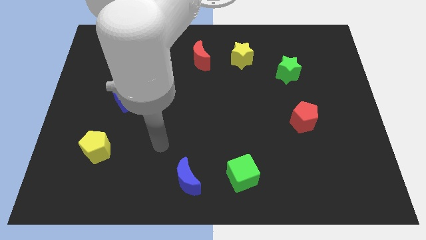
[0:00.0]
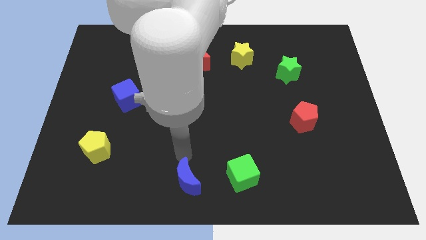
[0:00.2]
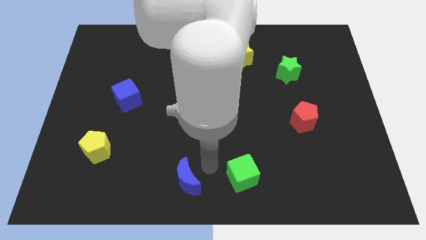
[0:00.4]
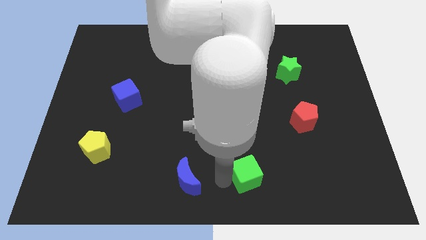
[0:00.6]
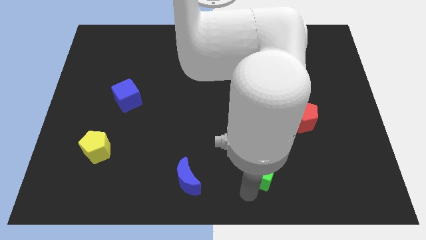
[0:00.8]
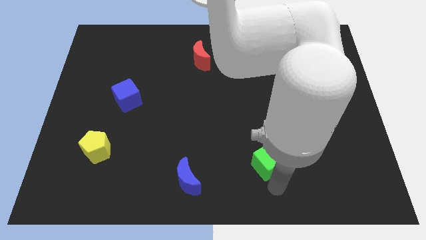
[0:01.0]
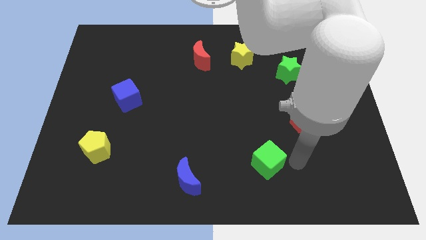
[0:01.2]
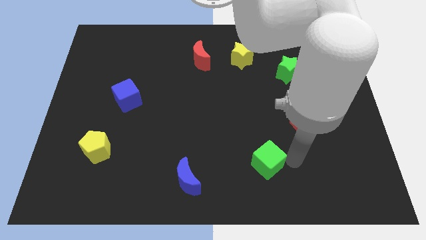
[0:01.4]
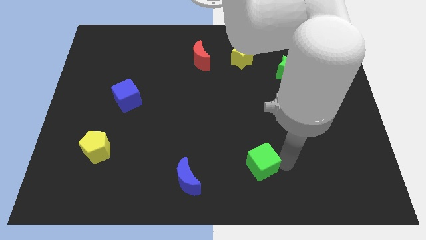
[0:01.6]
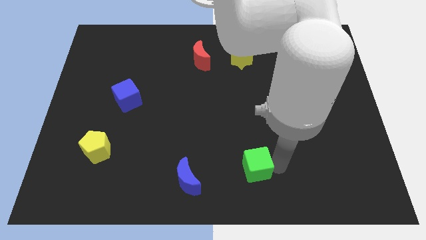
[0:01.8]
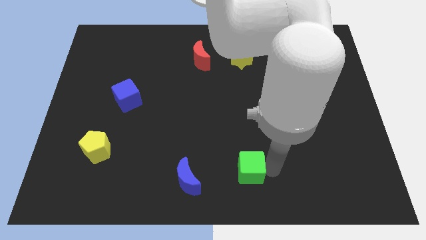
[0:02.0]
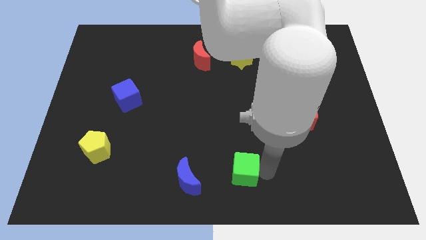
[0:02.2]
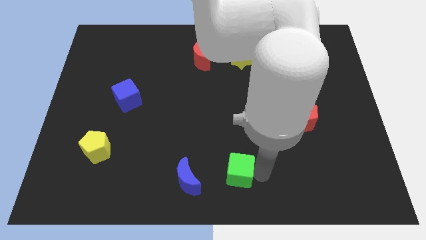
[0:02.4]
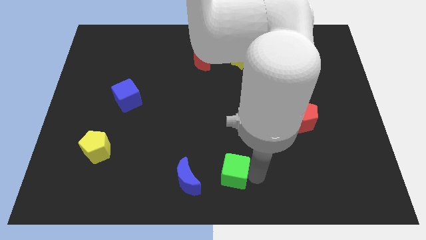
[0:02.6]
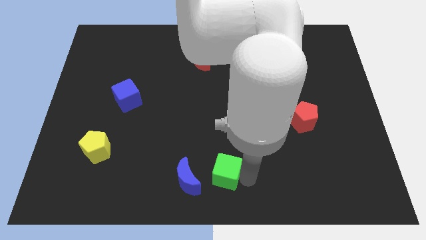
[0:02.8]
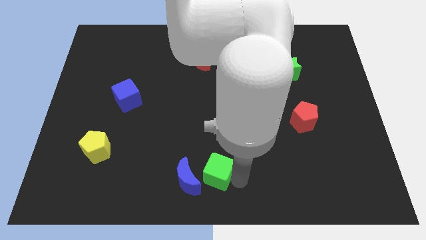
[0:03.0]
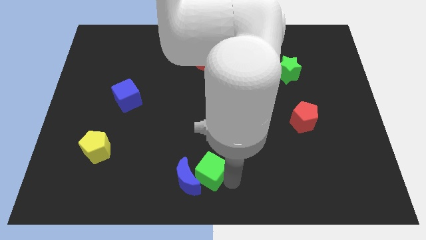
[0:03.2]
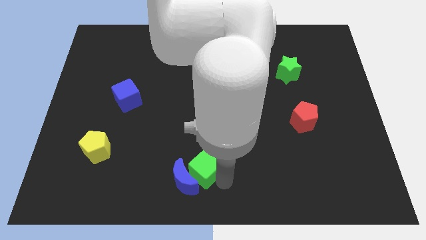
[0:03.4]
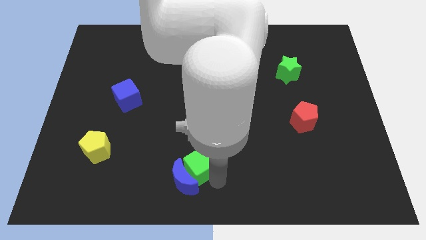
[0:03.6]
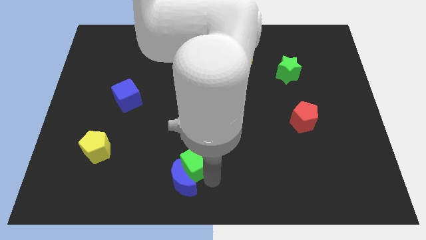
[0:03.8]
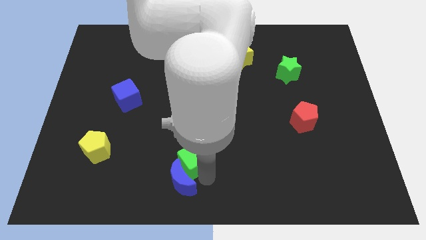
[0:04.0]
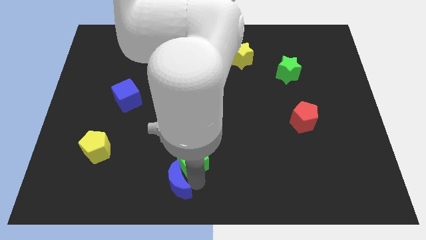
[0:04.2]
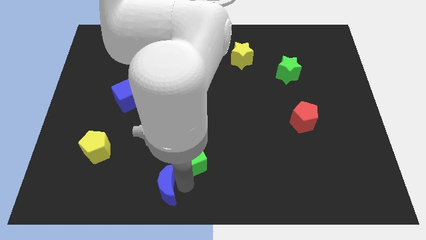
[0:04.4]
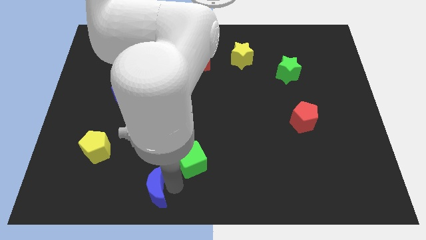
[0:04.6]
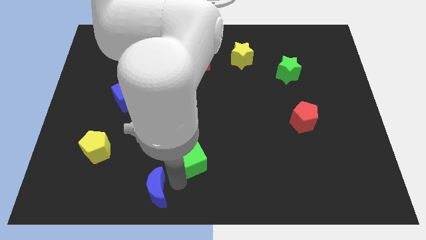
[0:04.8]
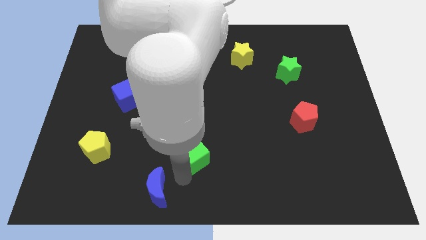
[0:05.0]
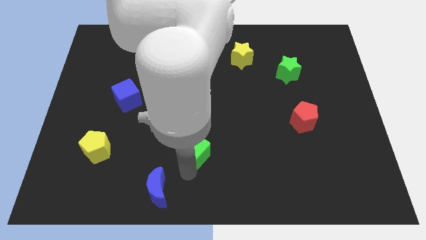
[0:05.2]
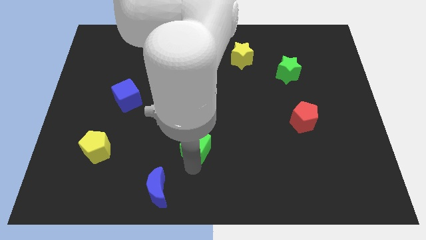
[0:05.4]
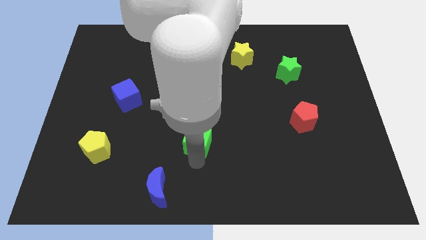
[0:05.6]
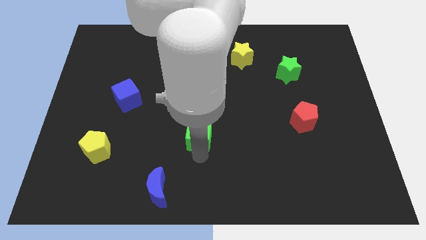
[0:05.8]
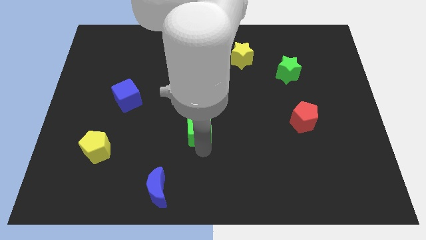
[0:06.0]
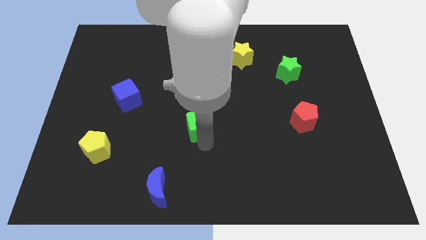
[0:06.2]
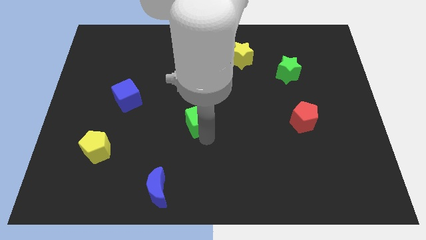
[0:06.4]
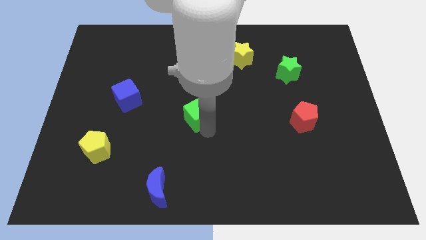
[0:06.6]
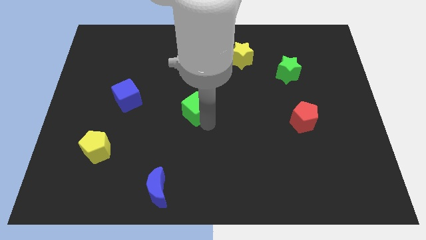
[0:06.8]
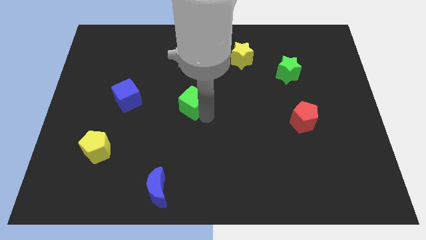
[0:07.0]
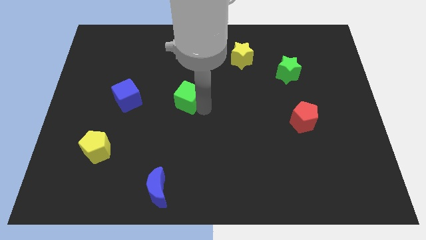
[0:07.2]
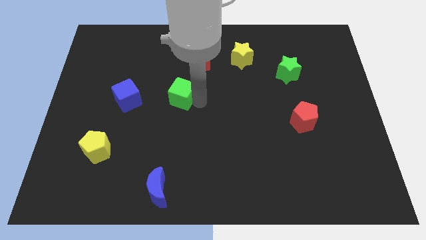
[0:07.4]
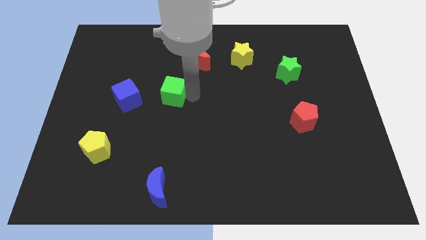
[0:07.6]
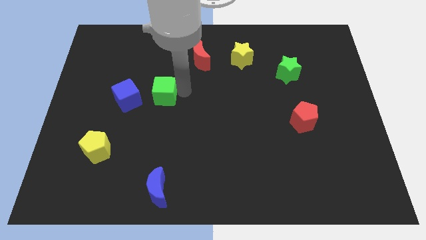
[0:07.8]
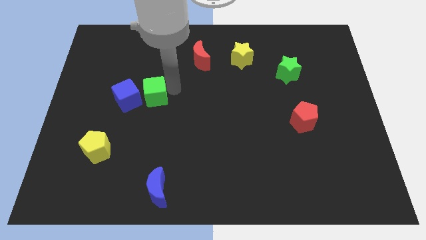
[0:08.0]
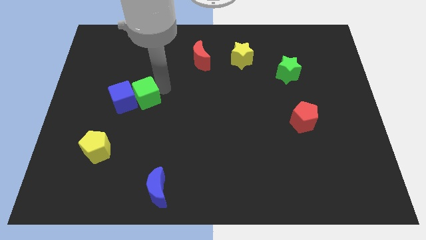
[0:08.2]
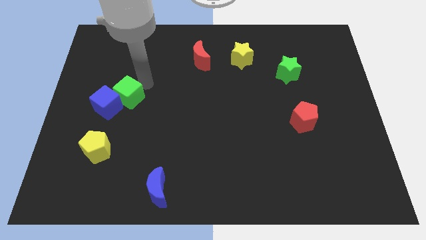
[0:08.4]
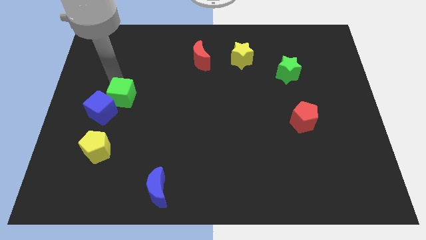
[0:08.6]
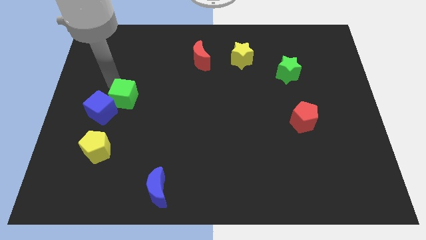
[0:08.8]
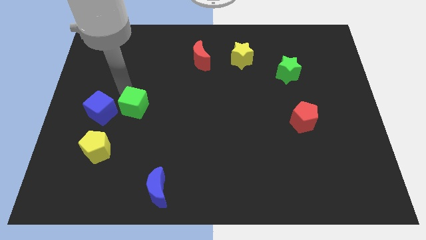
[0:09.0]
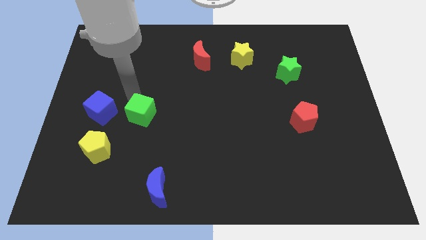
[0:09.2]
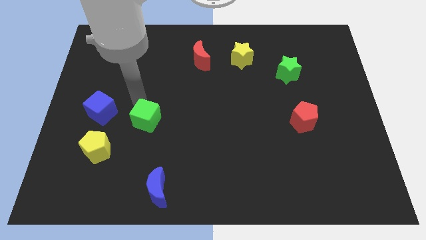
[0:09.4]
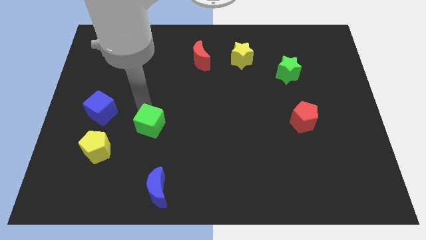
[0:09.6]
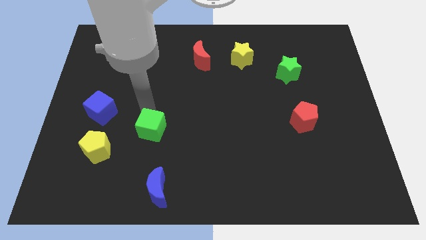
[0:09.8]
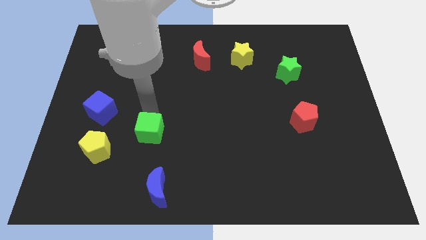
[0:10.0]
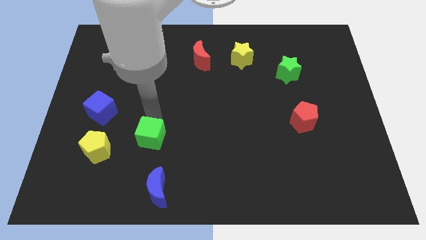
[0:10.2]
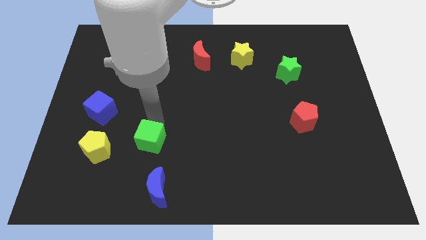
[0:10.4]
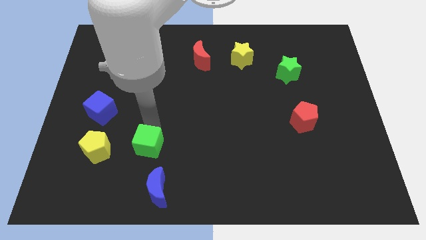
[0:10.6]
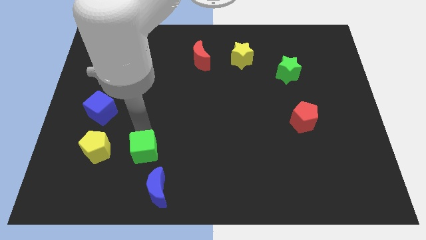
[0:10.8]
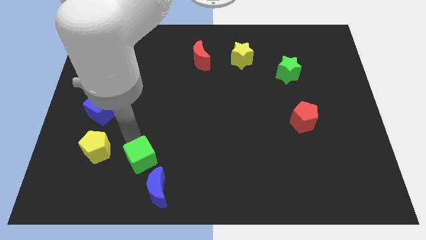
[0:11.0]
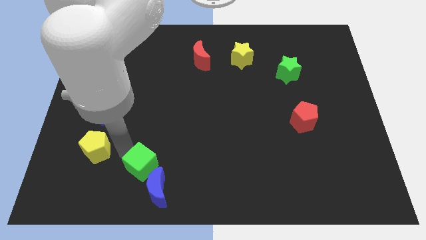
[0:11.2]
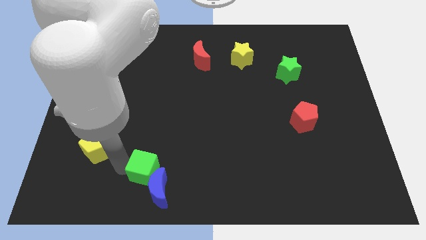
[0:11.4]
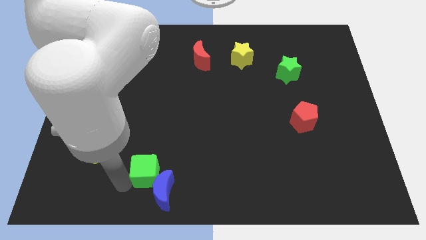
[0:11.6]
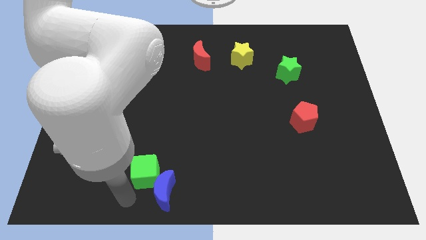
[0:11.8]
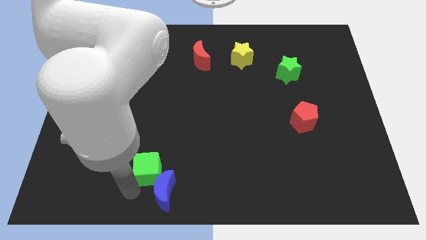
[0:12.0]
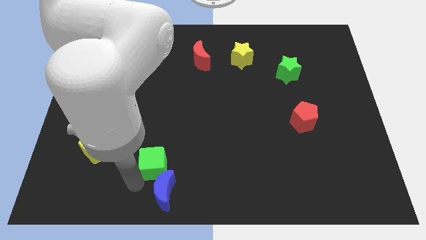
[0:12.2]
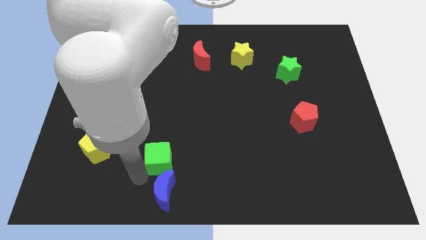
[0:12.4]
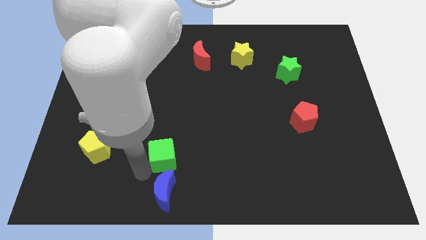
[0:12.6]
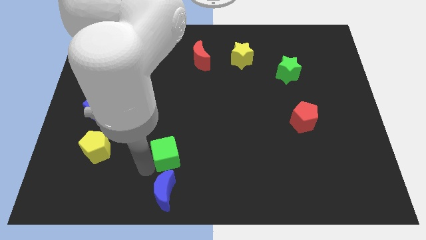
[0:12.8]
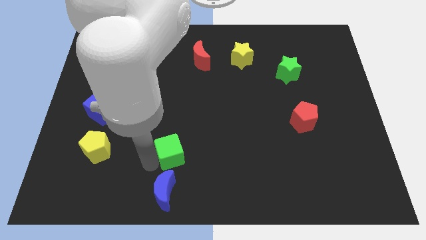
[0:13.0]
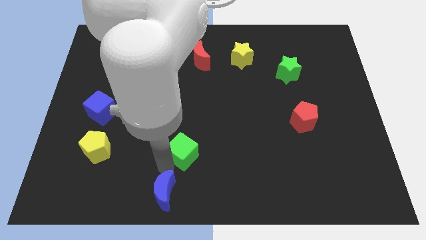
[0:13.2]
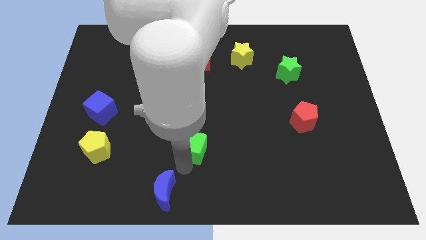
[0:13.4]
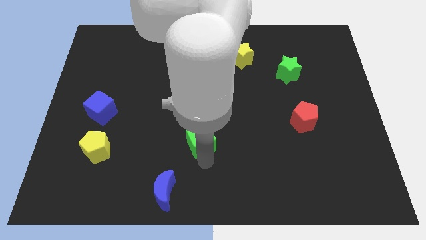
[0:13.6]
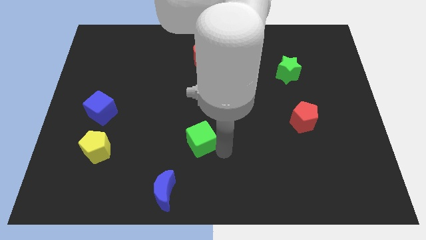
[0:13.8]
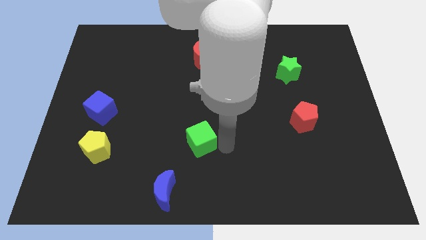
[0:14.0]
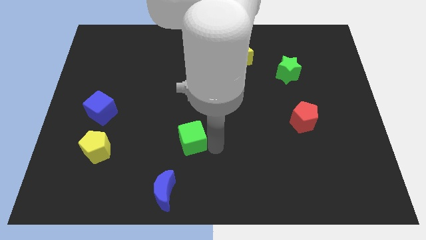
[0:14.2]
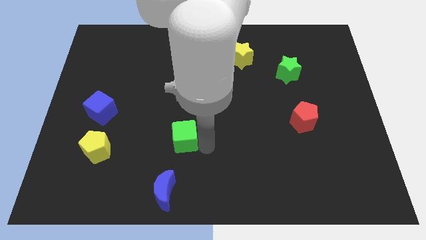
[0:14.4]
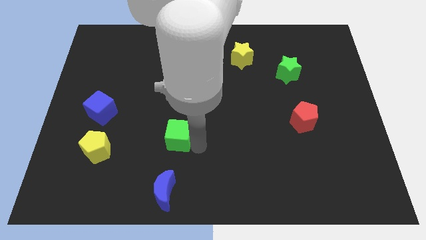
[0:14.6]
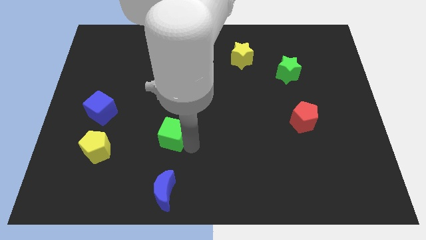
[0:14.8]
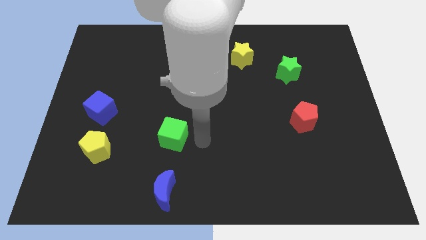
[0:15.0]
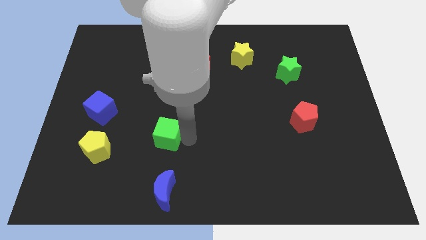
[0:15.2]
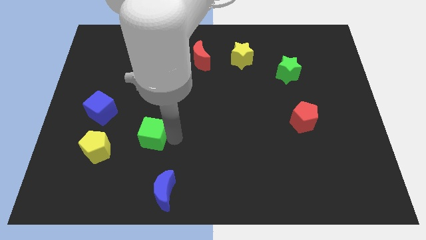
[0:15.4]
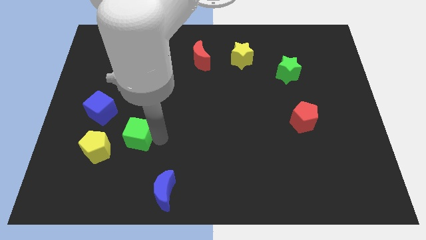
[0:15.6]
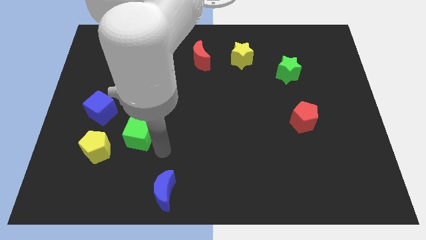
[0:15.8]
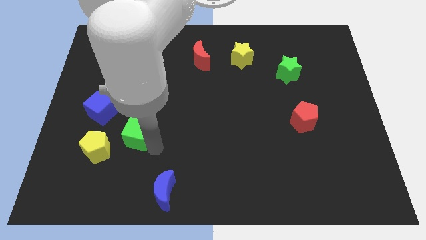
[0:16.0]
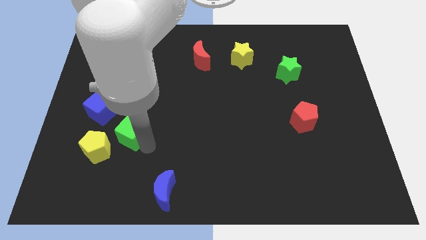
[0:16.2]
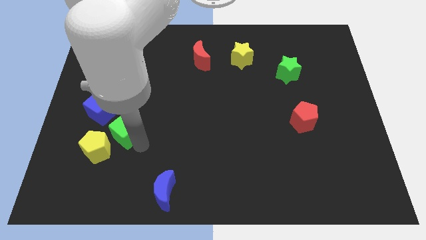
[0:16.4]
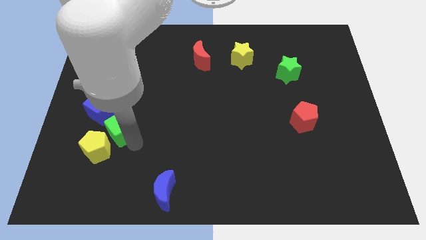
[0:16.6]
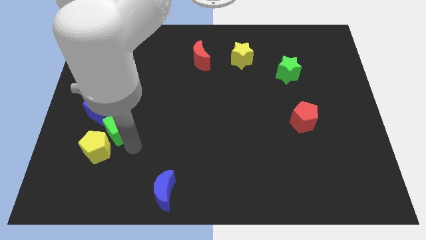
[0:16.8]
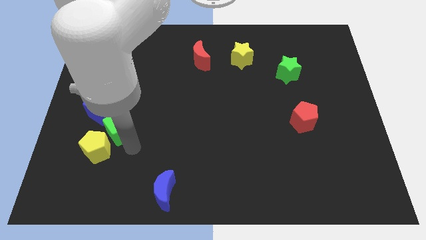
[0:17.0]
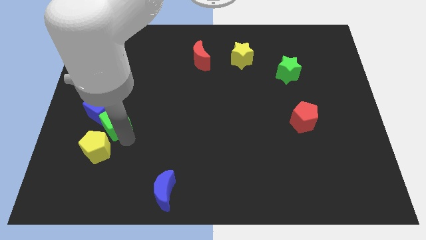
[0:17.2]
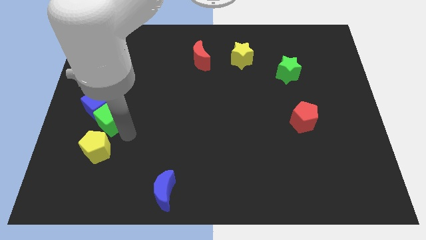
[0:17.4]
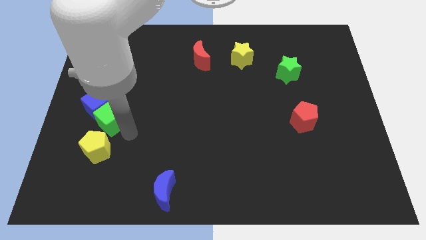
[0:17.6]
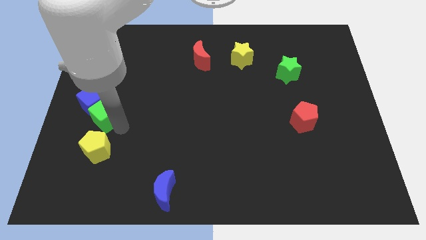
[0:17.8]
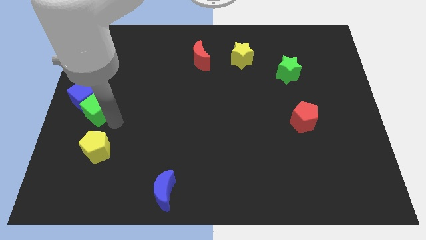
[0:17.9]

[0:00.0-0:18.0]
move the green cube to the center left
